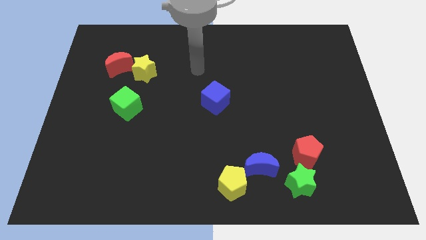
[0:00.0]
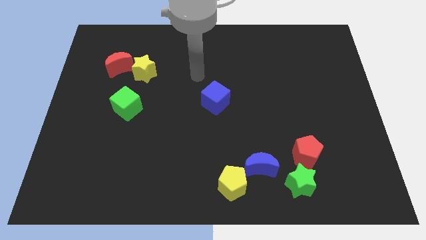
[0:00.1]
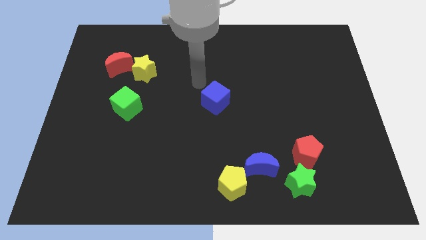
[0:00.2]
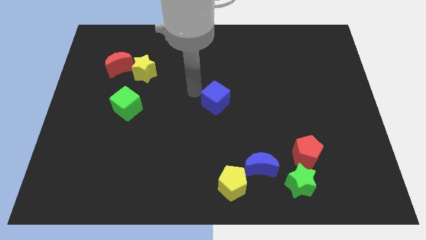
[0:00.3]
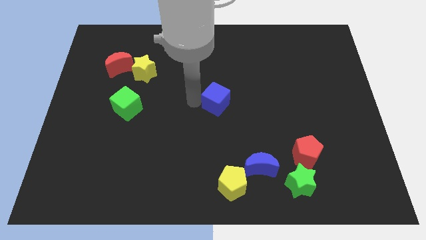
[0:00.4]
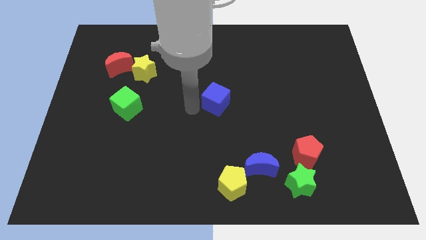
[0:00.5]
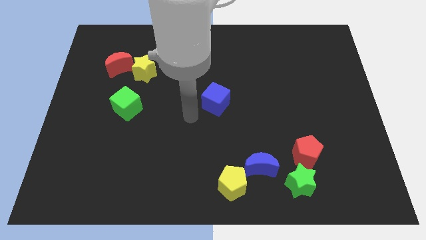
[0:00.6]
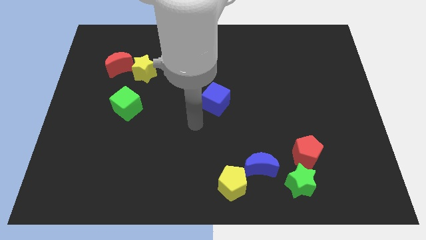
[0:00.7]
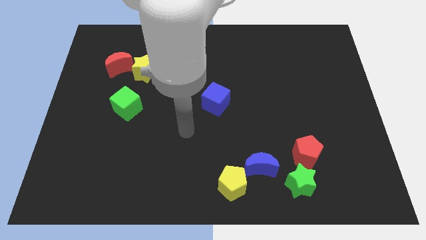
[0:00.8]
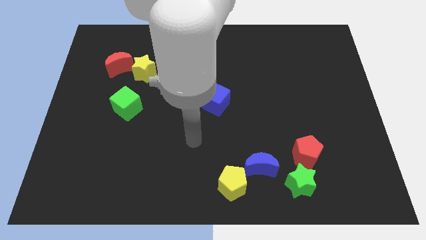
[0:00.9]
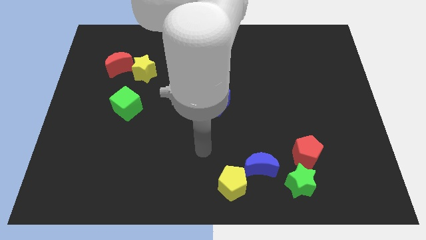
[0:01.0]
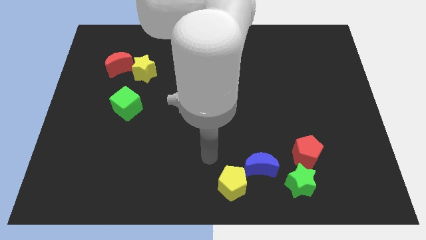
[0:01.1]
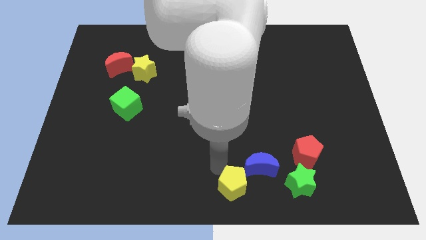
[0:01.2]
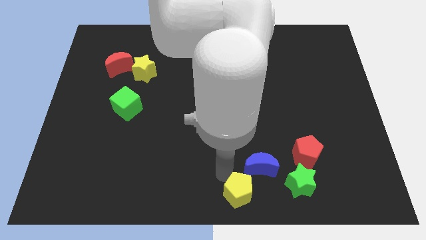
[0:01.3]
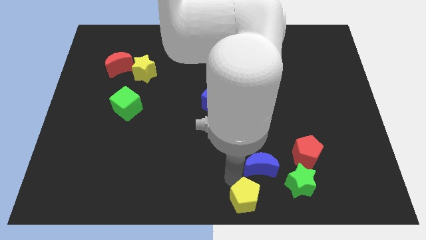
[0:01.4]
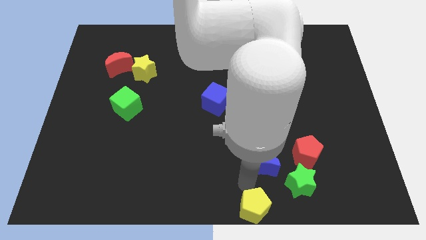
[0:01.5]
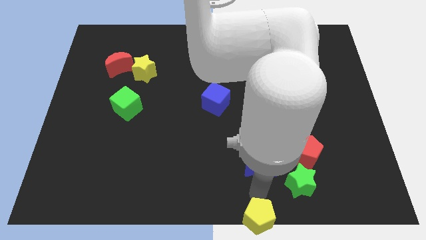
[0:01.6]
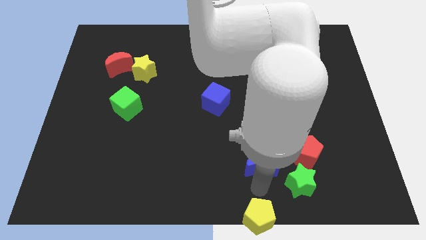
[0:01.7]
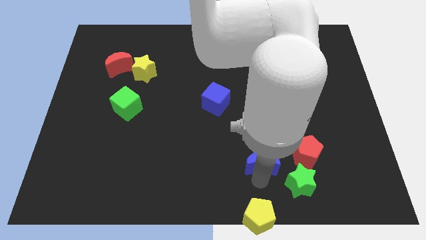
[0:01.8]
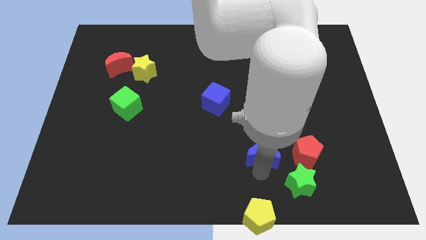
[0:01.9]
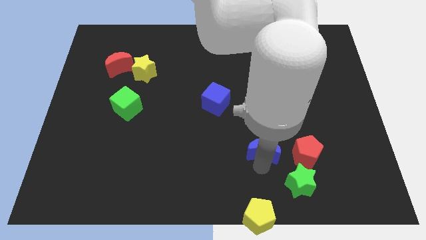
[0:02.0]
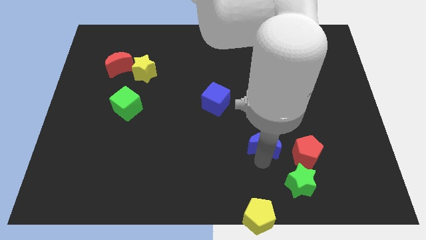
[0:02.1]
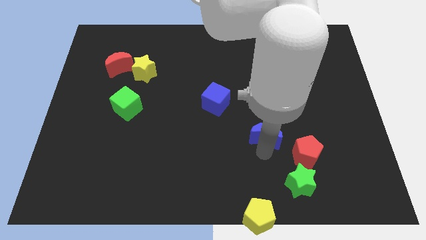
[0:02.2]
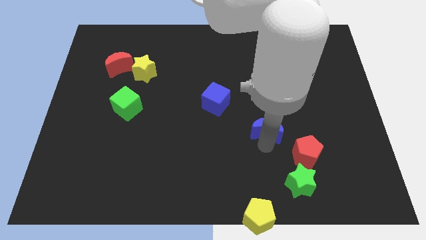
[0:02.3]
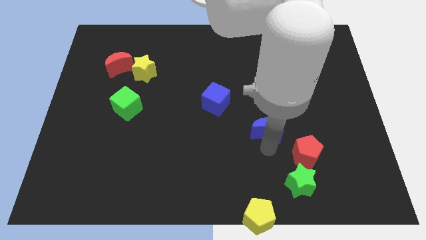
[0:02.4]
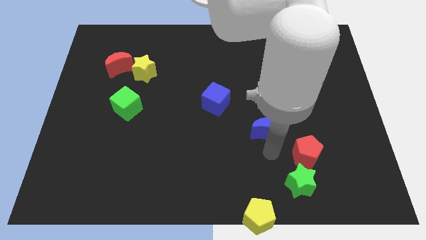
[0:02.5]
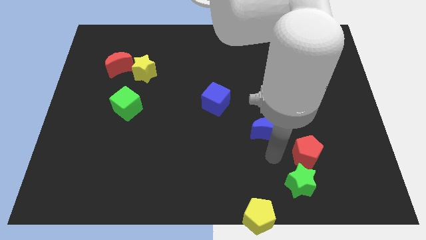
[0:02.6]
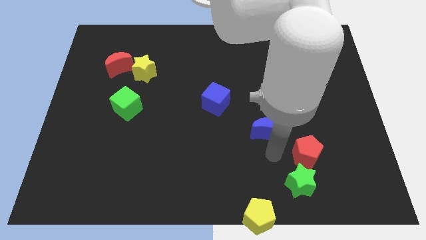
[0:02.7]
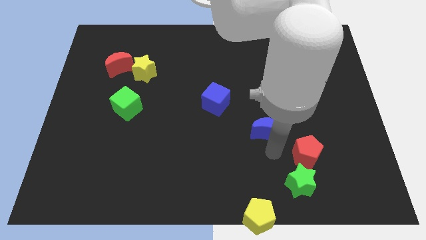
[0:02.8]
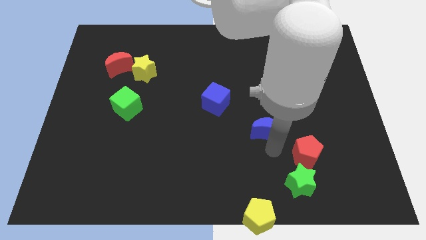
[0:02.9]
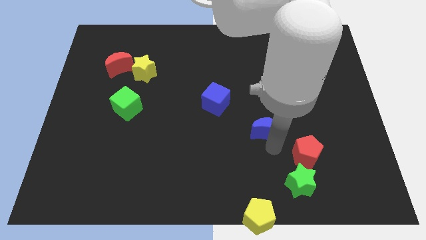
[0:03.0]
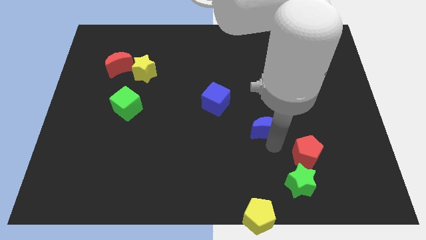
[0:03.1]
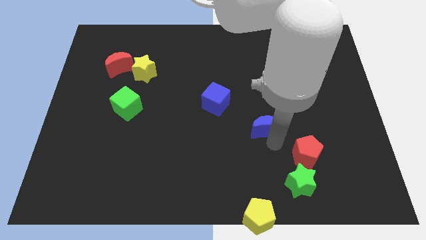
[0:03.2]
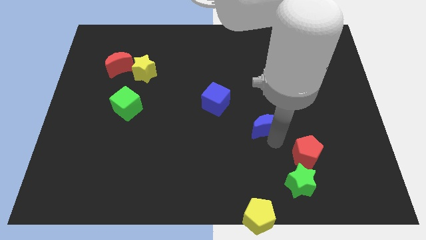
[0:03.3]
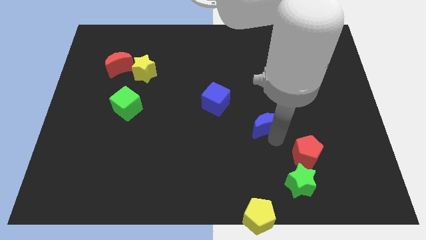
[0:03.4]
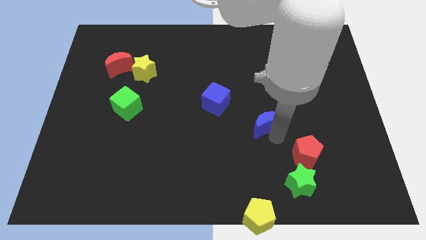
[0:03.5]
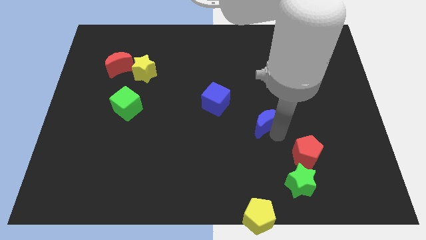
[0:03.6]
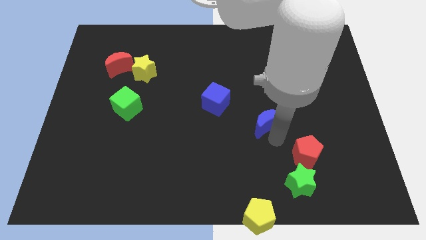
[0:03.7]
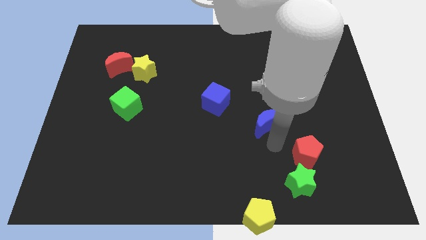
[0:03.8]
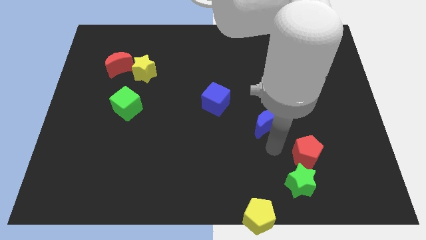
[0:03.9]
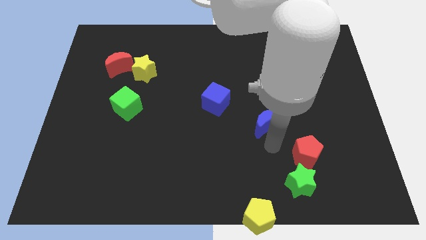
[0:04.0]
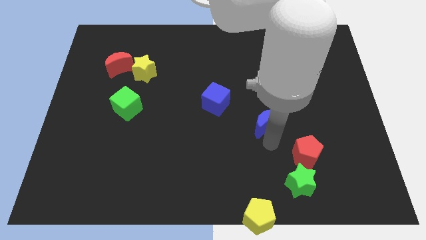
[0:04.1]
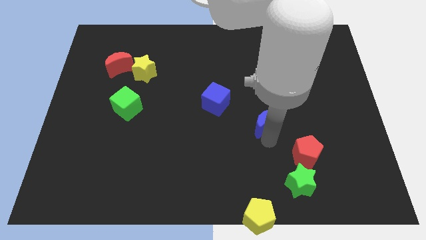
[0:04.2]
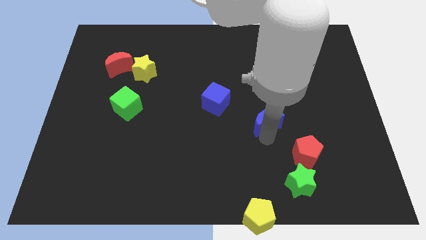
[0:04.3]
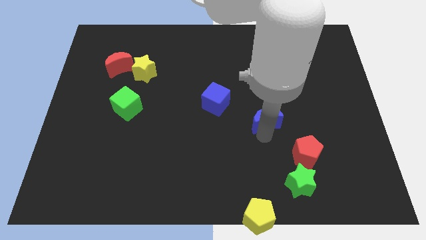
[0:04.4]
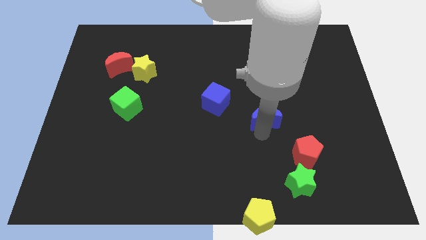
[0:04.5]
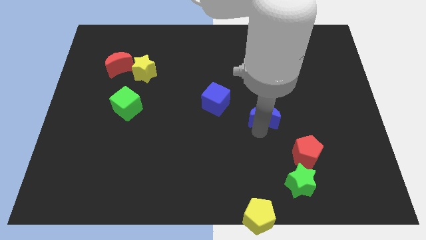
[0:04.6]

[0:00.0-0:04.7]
slide the blue moon just right of the blue cube

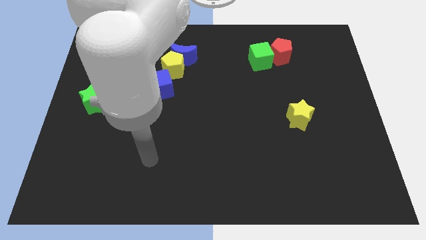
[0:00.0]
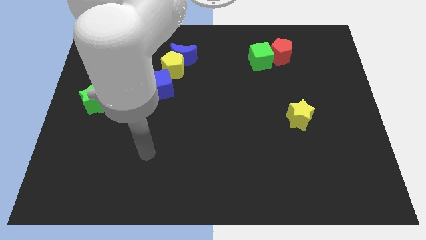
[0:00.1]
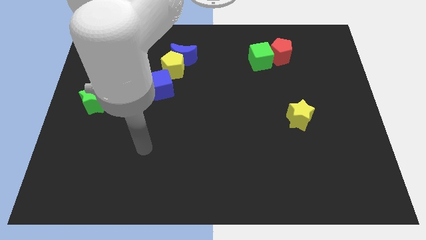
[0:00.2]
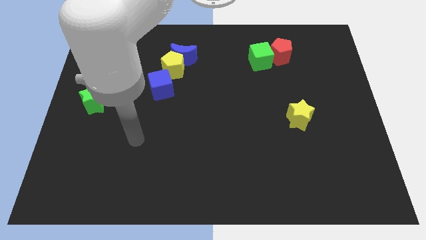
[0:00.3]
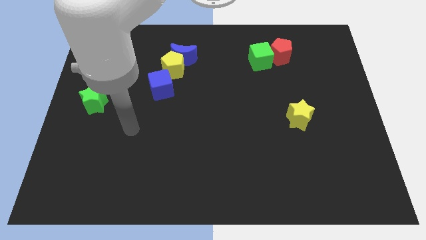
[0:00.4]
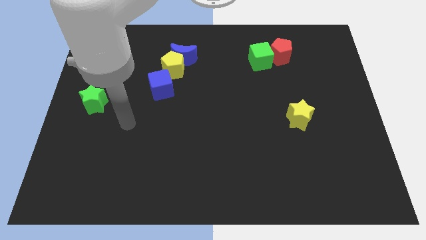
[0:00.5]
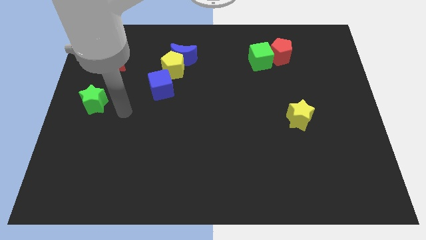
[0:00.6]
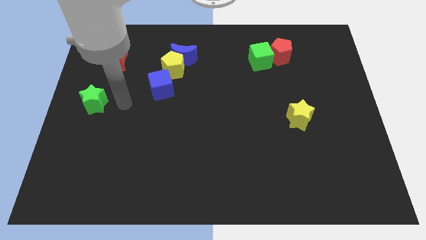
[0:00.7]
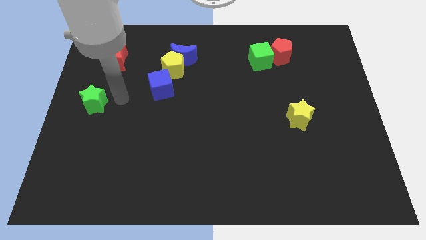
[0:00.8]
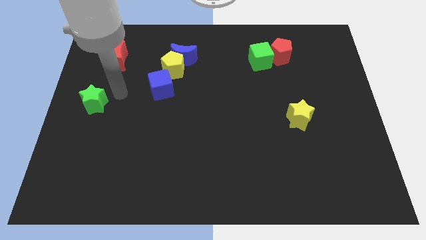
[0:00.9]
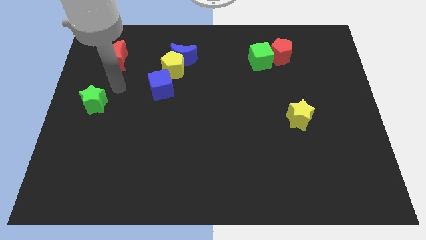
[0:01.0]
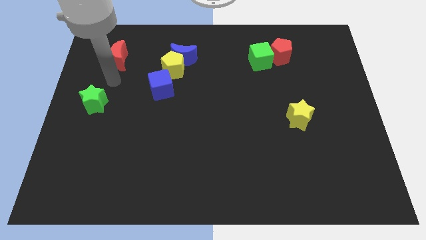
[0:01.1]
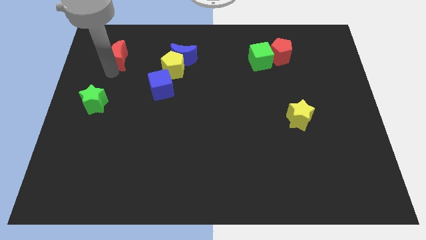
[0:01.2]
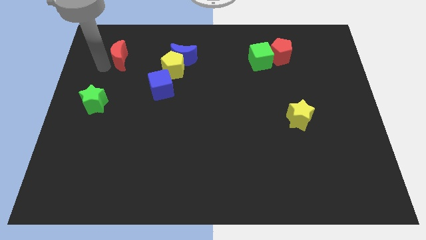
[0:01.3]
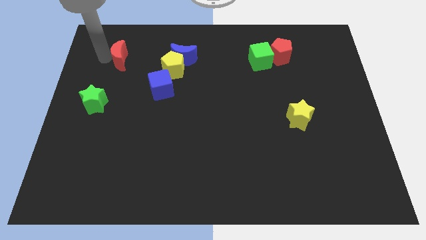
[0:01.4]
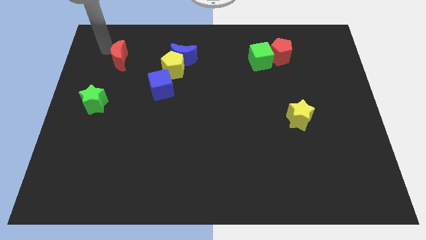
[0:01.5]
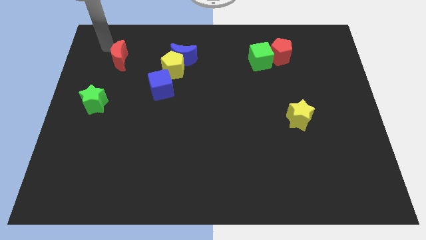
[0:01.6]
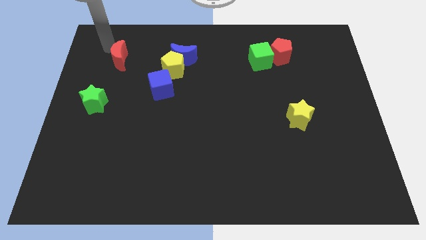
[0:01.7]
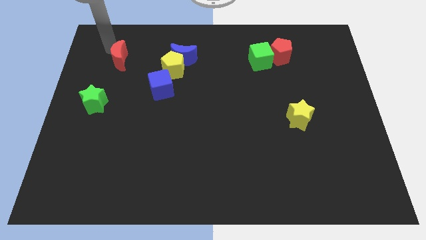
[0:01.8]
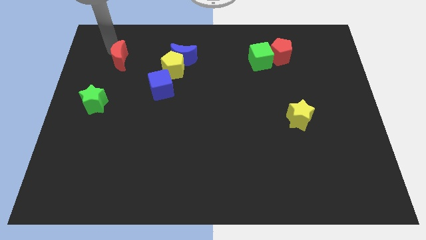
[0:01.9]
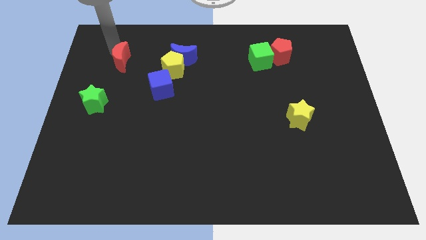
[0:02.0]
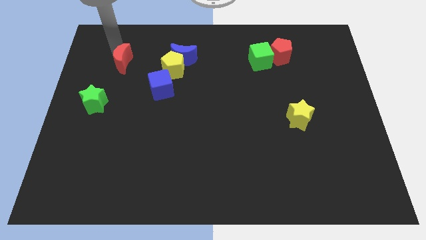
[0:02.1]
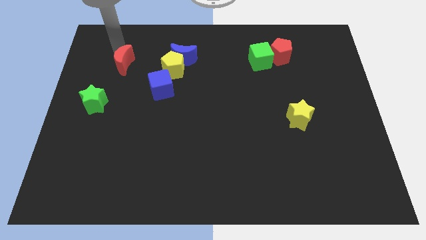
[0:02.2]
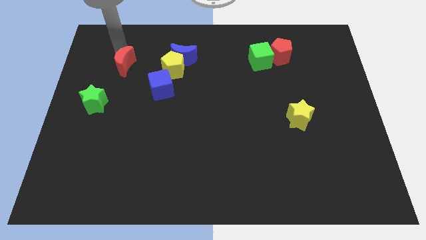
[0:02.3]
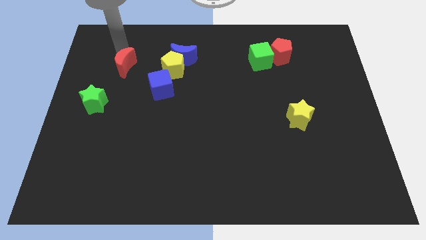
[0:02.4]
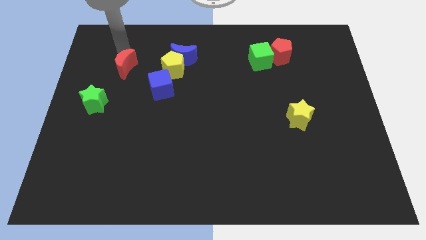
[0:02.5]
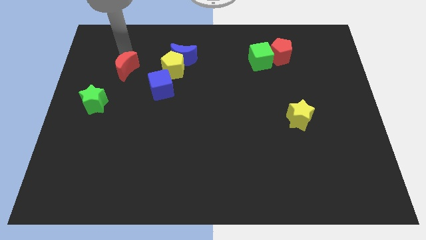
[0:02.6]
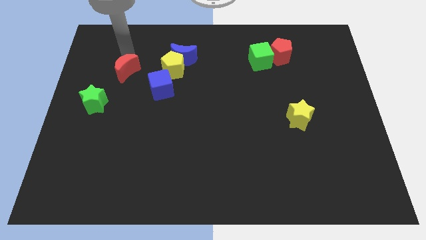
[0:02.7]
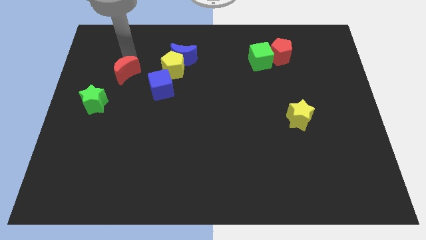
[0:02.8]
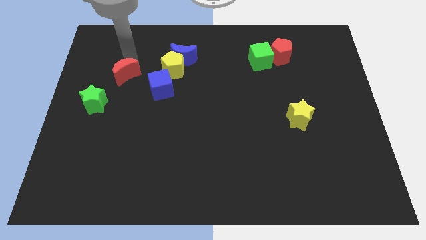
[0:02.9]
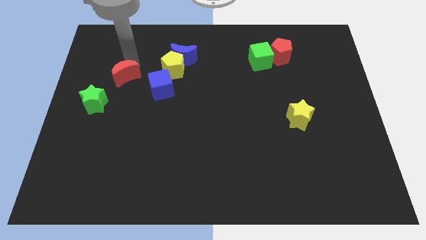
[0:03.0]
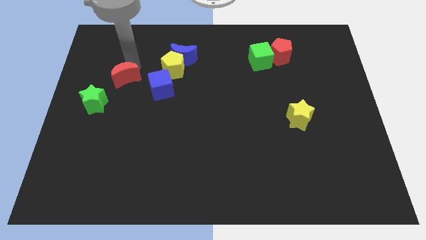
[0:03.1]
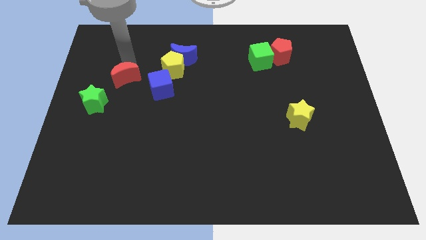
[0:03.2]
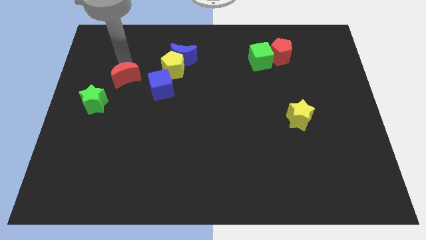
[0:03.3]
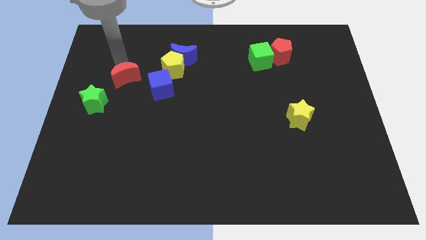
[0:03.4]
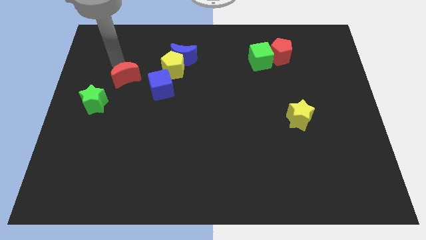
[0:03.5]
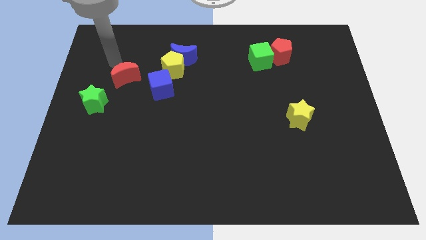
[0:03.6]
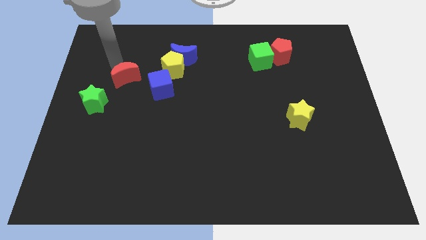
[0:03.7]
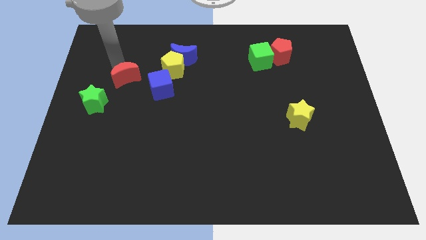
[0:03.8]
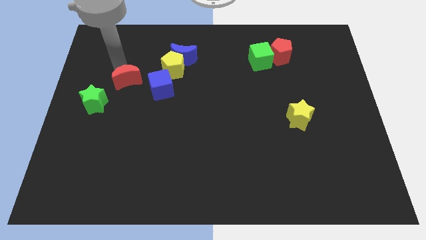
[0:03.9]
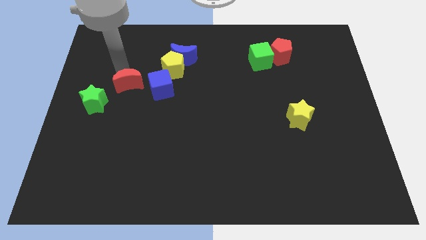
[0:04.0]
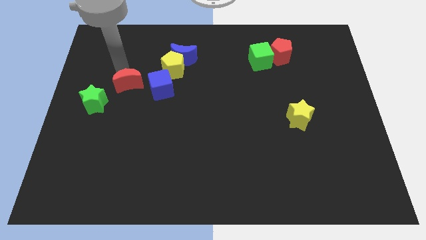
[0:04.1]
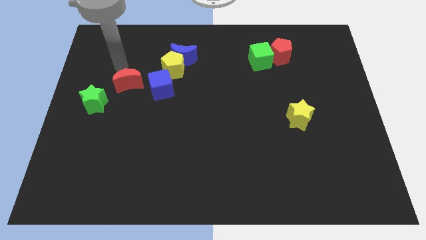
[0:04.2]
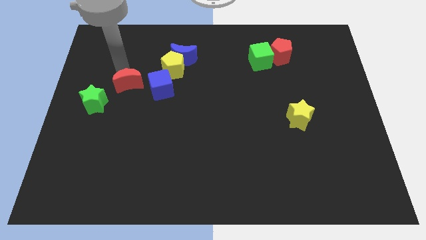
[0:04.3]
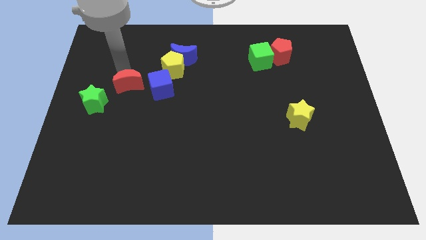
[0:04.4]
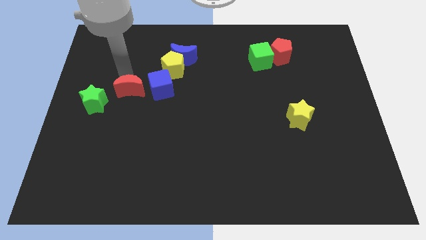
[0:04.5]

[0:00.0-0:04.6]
move the red moon just right of the green star
